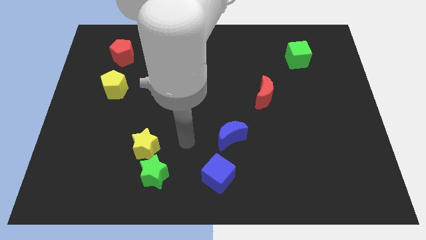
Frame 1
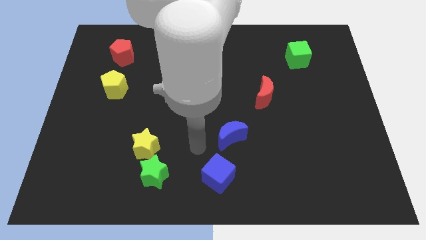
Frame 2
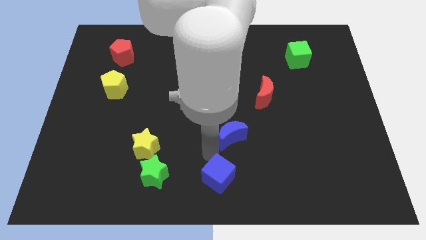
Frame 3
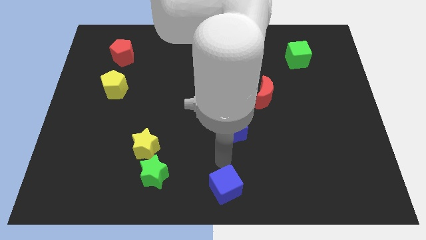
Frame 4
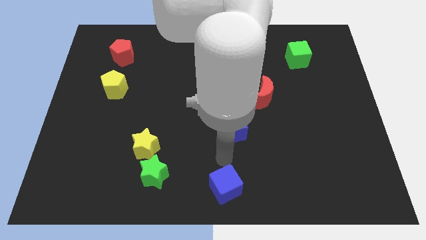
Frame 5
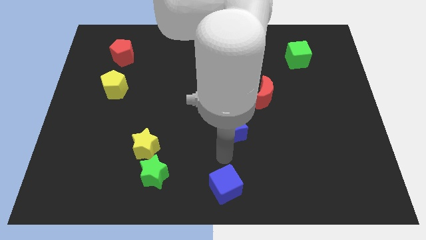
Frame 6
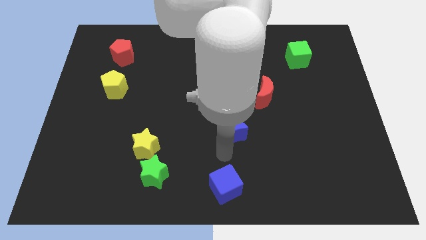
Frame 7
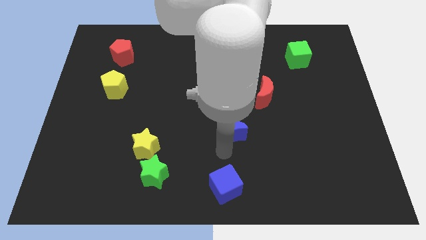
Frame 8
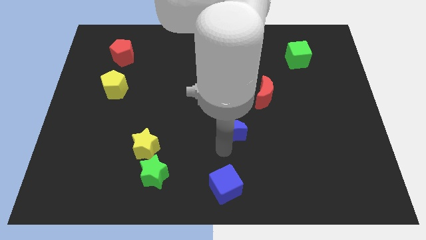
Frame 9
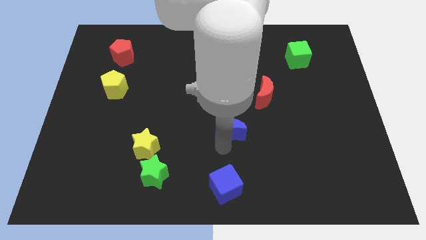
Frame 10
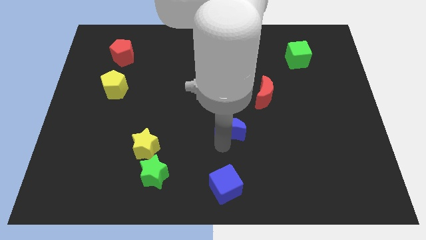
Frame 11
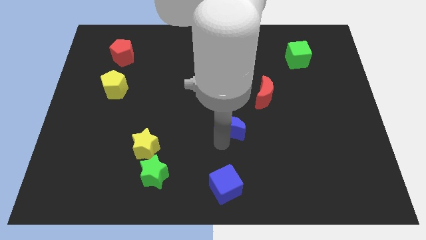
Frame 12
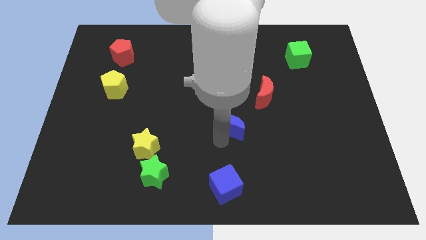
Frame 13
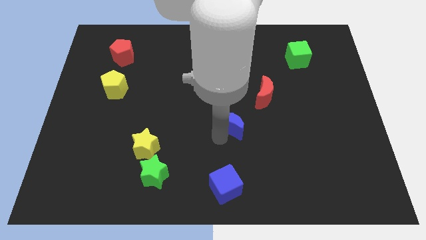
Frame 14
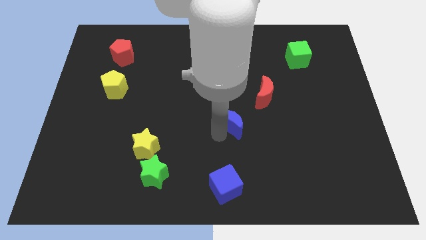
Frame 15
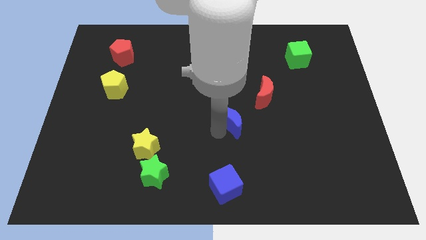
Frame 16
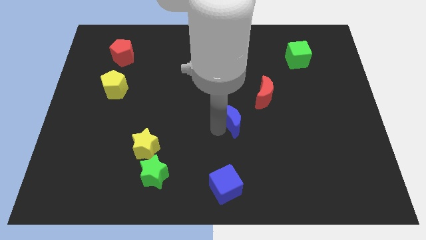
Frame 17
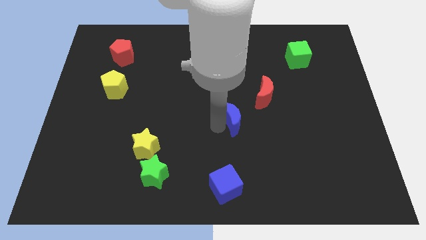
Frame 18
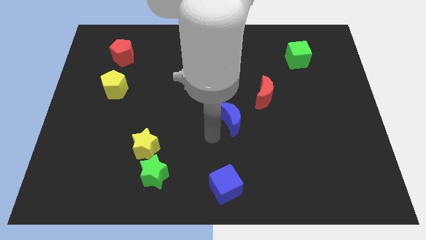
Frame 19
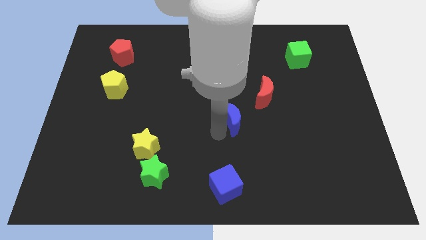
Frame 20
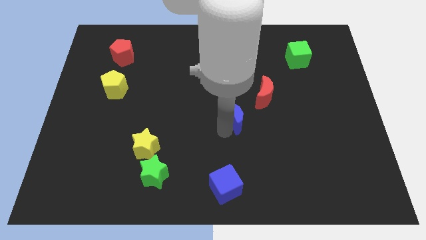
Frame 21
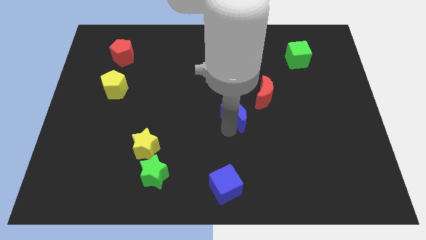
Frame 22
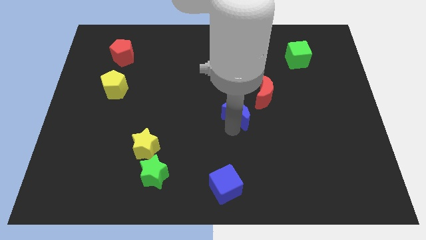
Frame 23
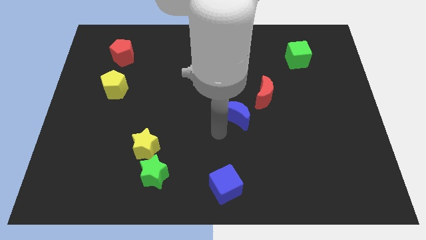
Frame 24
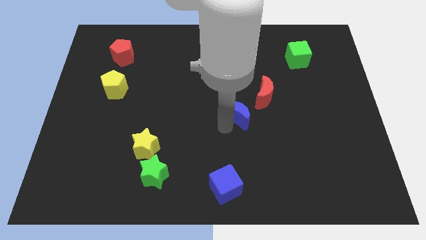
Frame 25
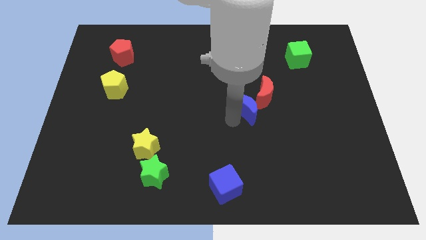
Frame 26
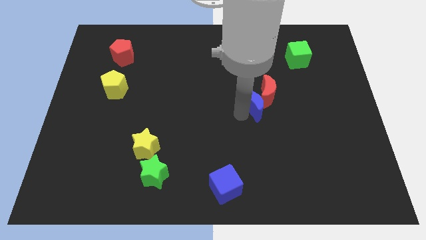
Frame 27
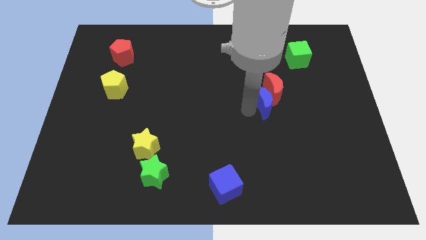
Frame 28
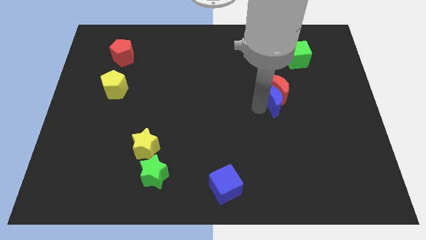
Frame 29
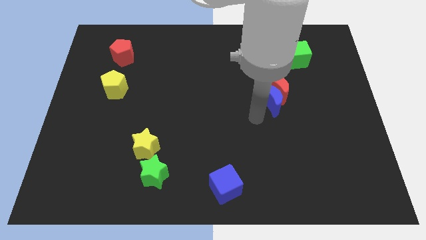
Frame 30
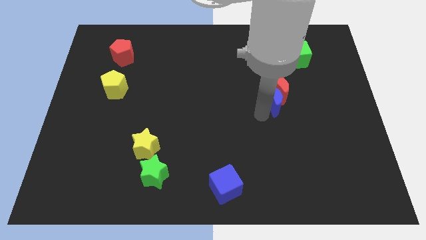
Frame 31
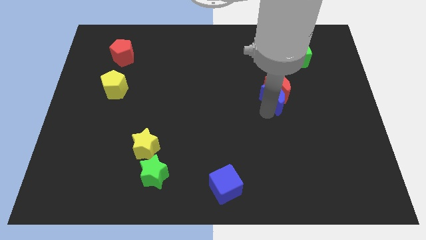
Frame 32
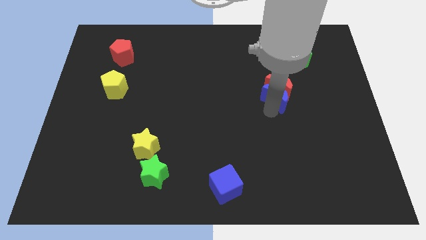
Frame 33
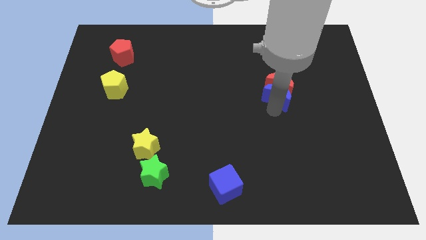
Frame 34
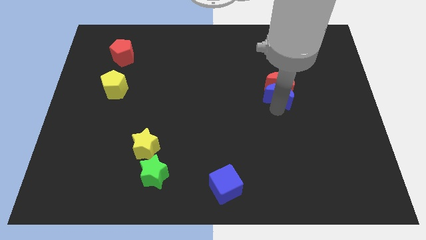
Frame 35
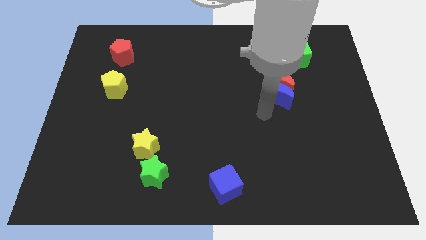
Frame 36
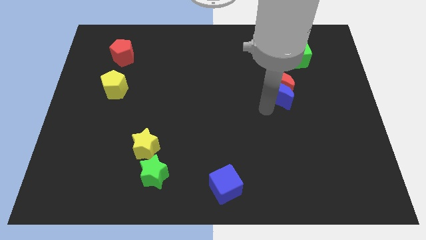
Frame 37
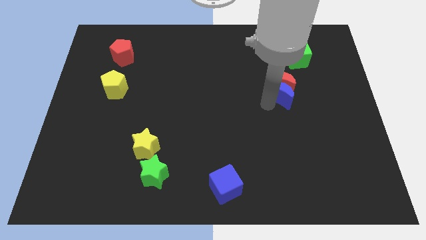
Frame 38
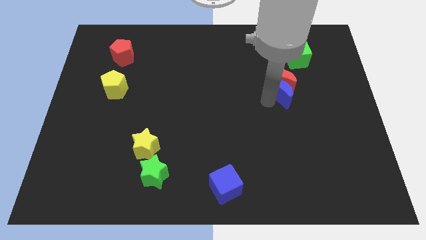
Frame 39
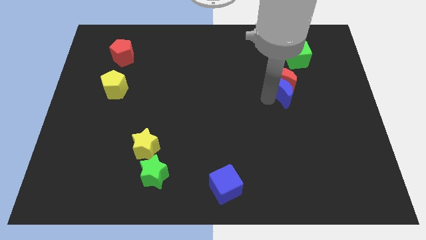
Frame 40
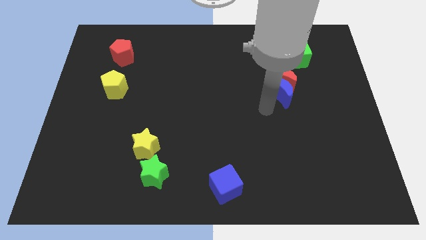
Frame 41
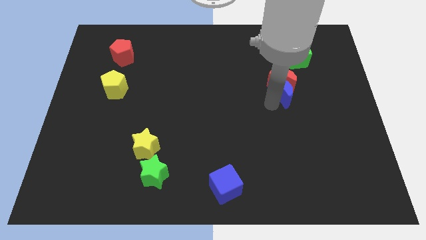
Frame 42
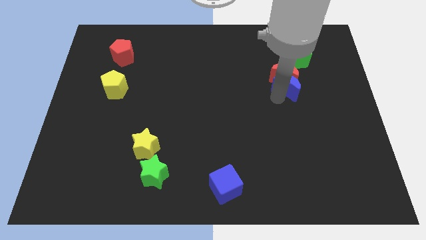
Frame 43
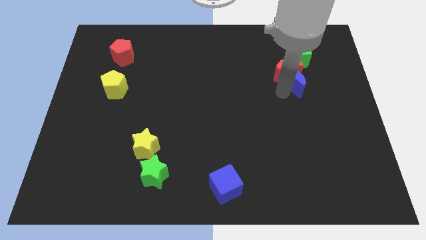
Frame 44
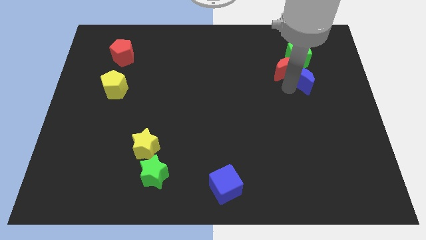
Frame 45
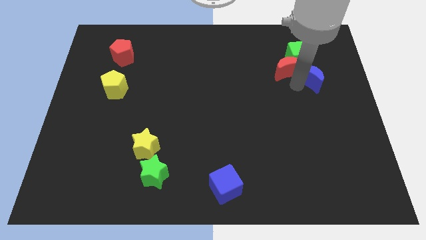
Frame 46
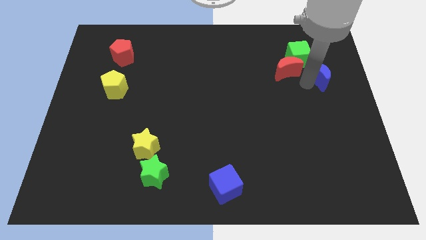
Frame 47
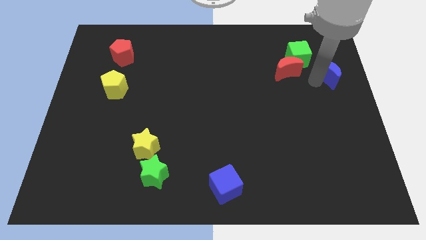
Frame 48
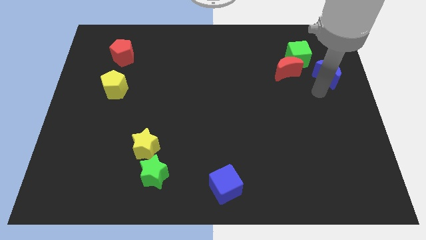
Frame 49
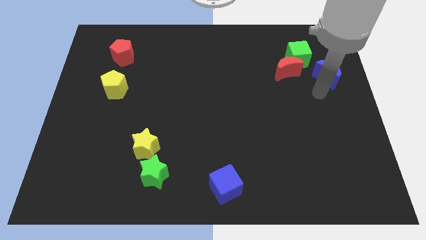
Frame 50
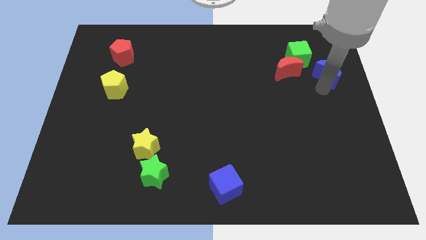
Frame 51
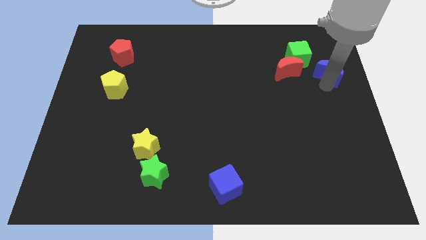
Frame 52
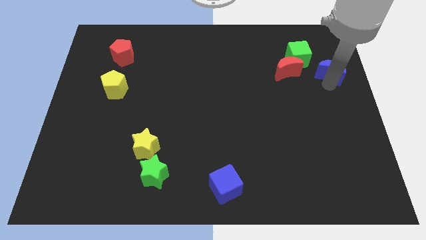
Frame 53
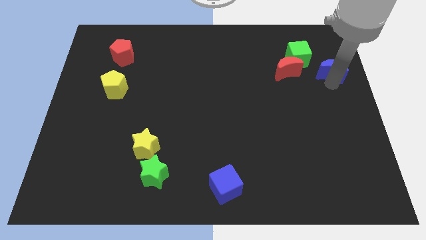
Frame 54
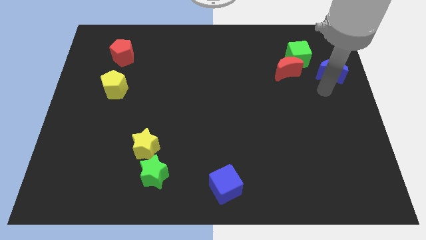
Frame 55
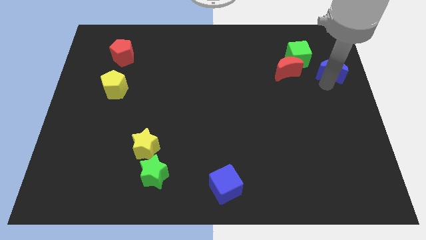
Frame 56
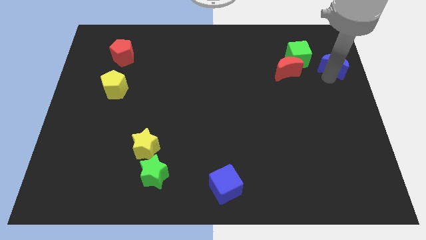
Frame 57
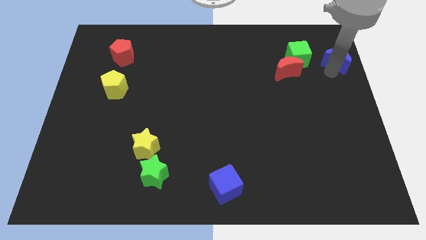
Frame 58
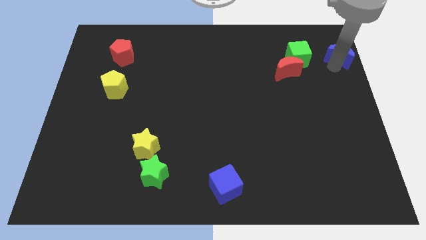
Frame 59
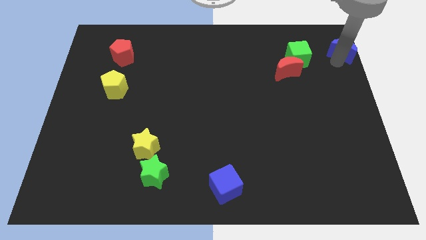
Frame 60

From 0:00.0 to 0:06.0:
put the blue moon to the top right corner

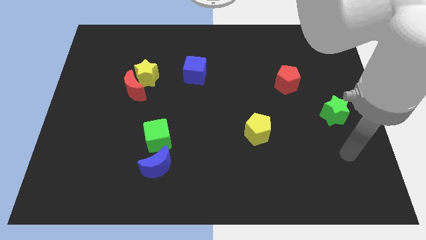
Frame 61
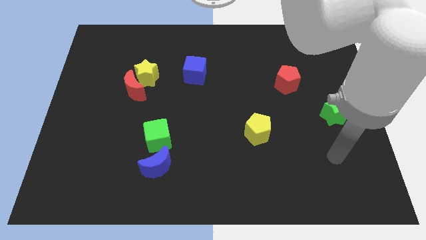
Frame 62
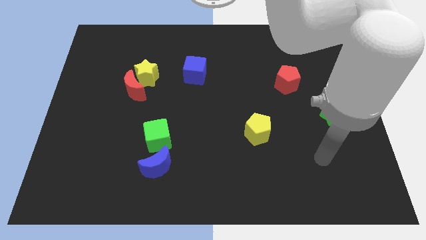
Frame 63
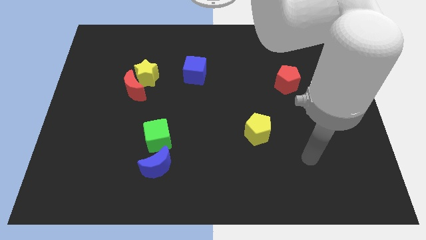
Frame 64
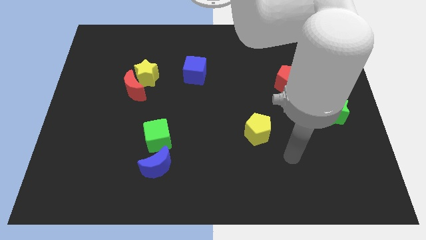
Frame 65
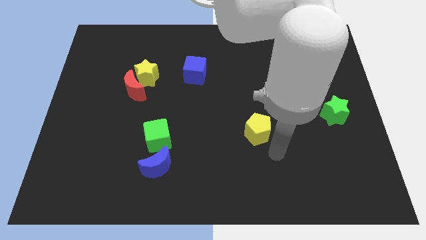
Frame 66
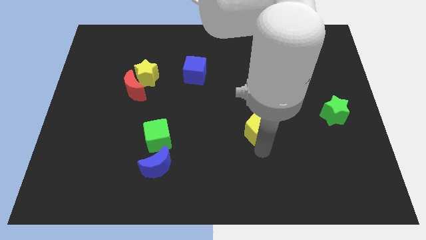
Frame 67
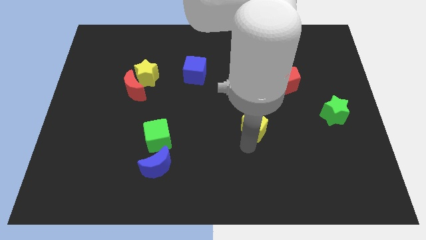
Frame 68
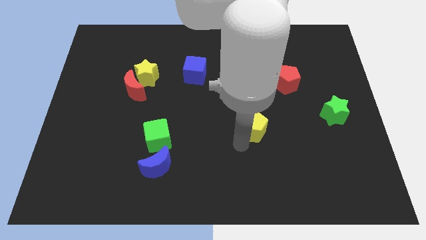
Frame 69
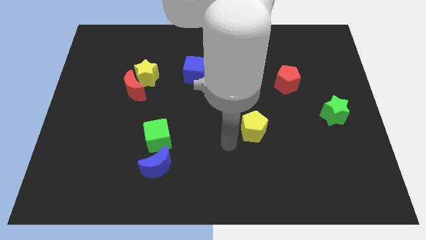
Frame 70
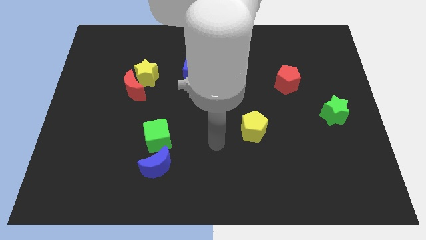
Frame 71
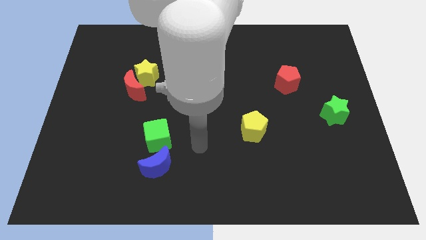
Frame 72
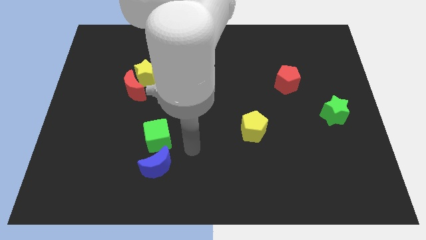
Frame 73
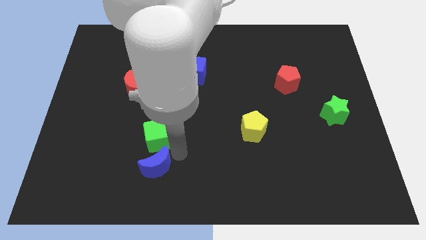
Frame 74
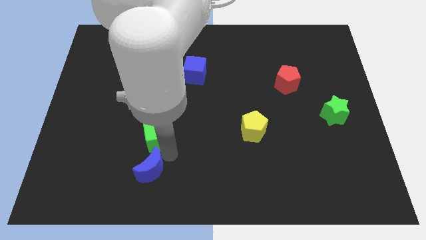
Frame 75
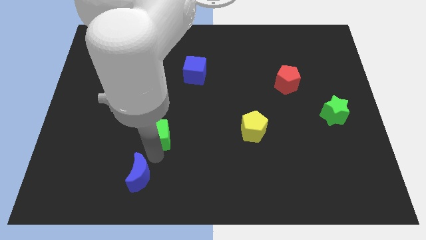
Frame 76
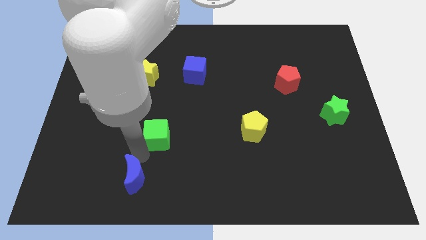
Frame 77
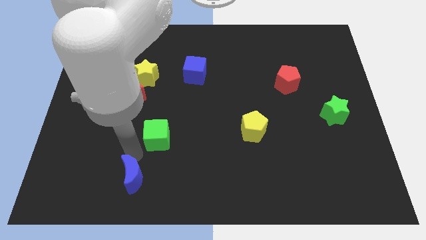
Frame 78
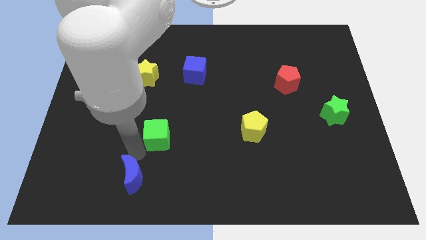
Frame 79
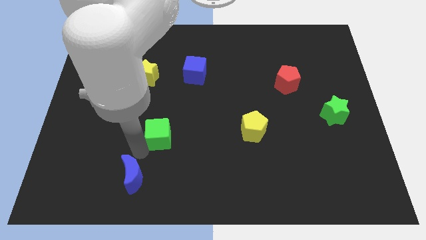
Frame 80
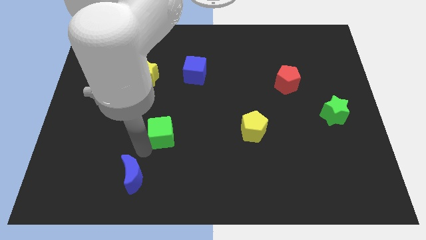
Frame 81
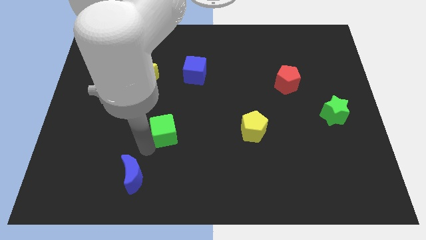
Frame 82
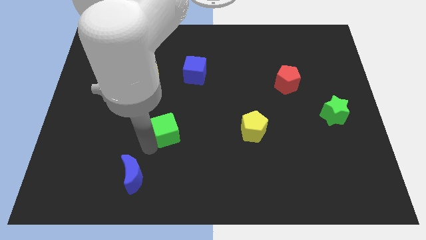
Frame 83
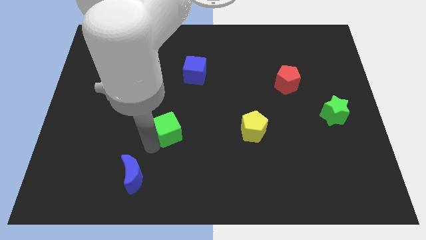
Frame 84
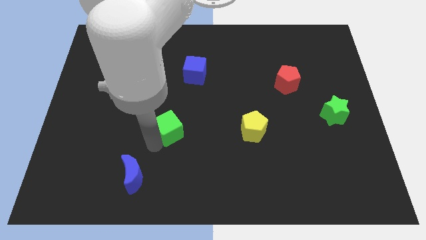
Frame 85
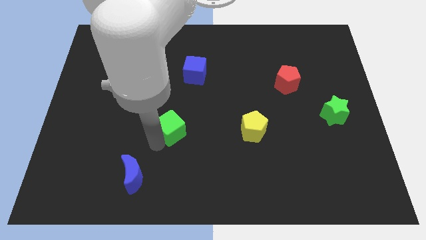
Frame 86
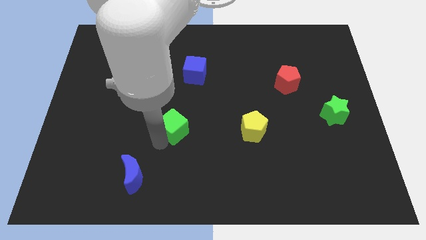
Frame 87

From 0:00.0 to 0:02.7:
move the green cube to the center
